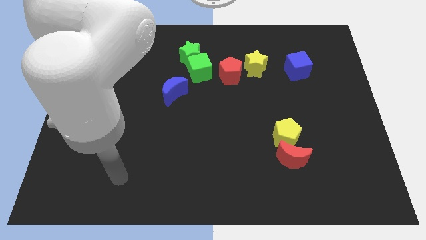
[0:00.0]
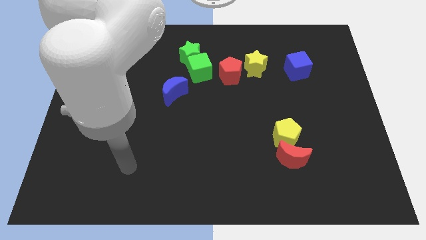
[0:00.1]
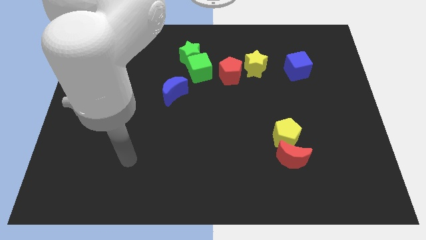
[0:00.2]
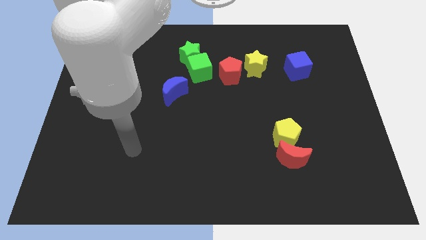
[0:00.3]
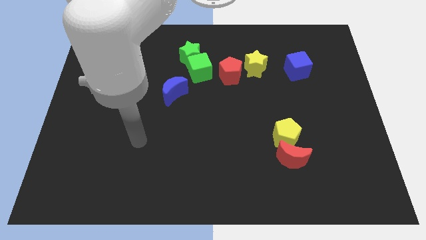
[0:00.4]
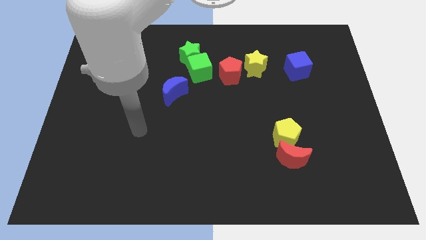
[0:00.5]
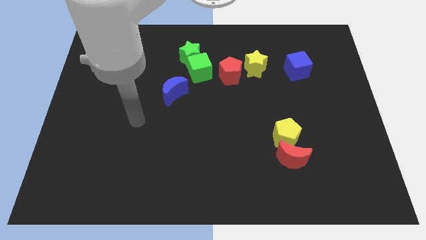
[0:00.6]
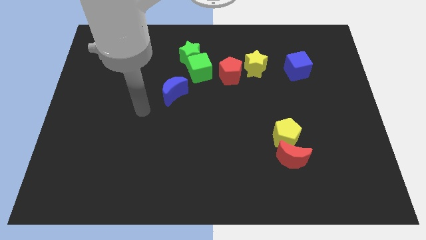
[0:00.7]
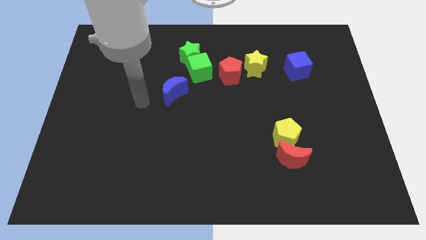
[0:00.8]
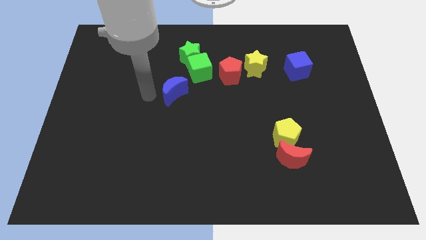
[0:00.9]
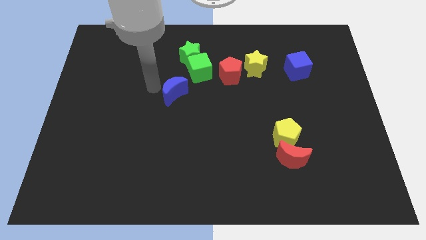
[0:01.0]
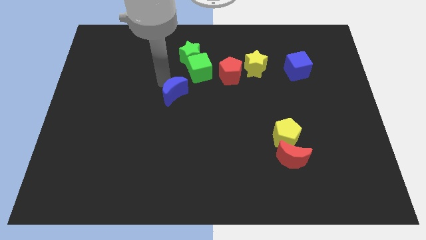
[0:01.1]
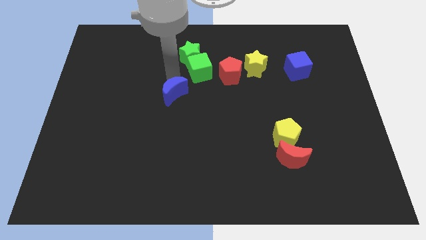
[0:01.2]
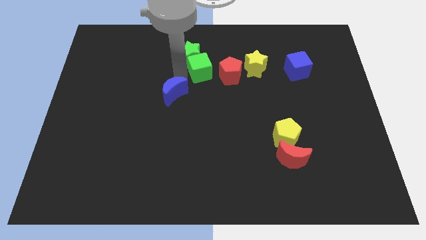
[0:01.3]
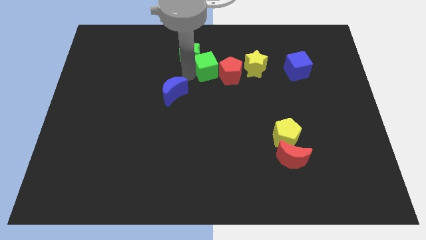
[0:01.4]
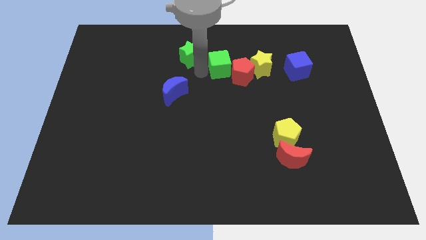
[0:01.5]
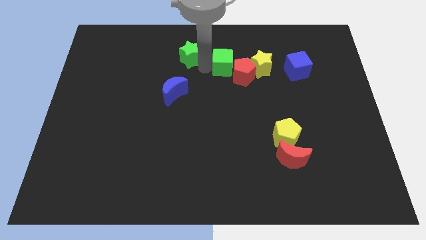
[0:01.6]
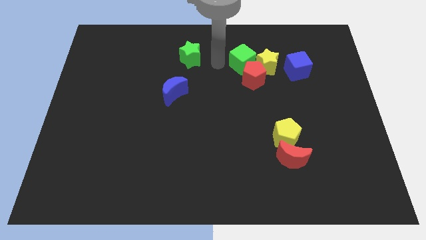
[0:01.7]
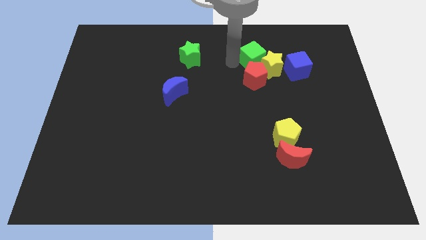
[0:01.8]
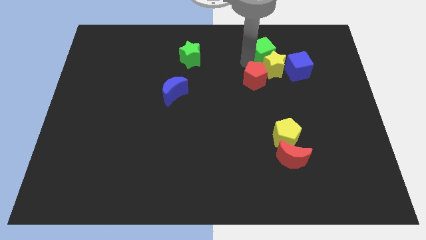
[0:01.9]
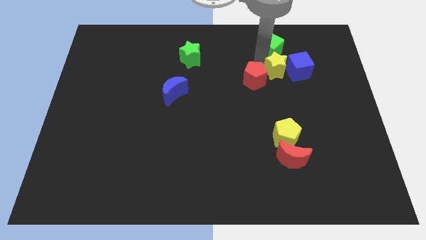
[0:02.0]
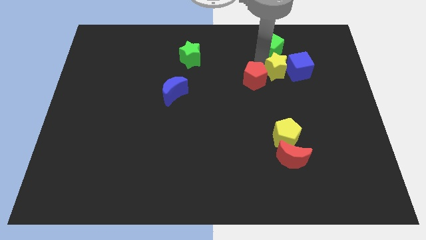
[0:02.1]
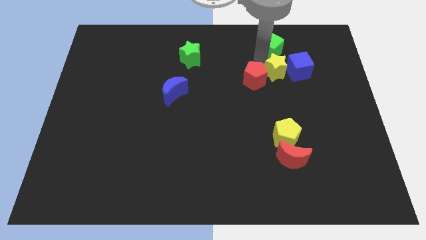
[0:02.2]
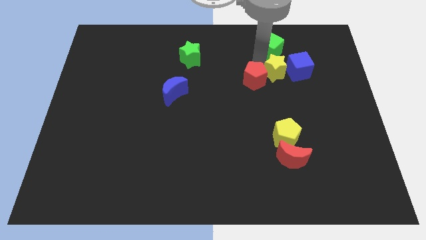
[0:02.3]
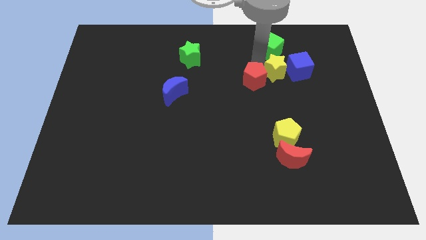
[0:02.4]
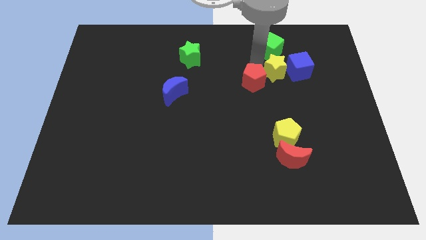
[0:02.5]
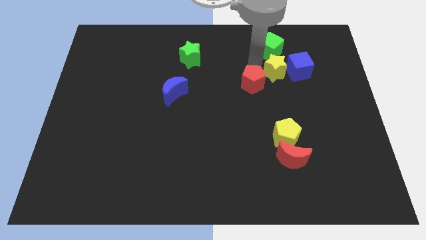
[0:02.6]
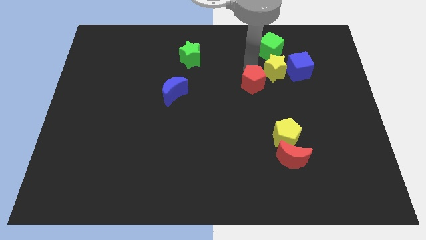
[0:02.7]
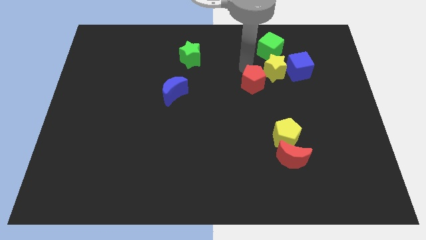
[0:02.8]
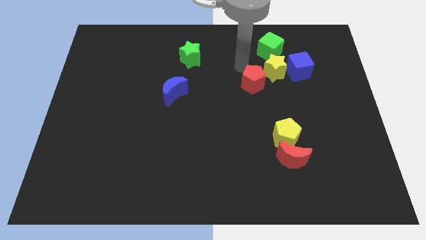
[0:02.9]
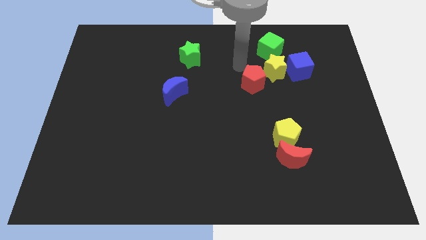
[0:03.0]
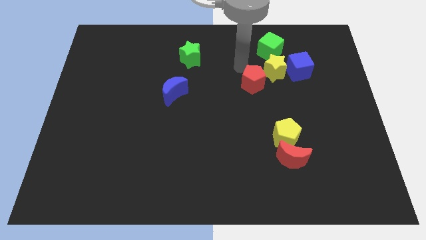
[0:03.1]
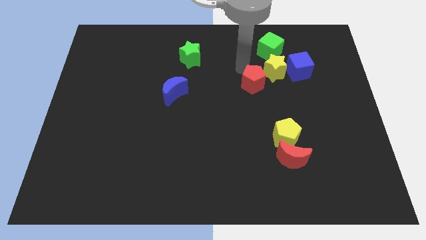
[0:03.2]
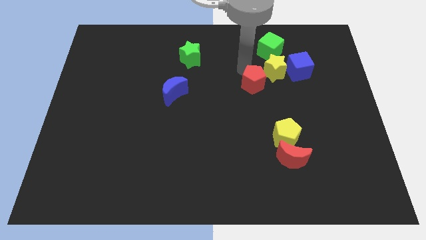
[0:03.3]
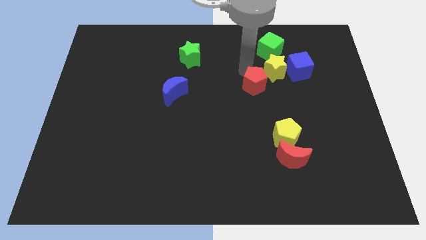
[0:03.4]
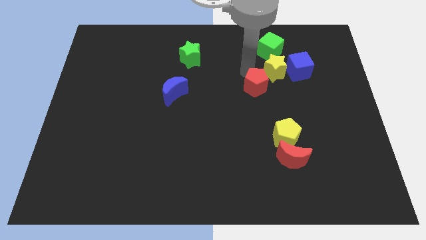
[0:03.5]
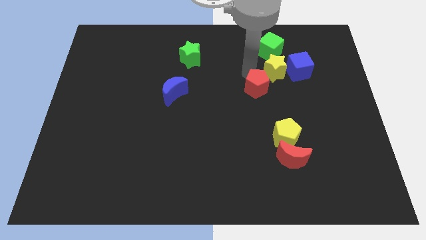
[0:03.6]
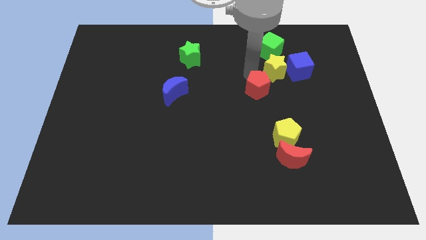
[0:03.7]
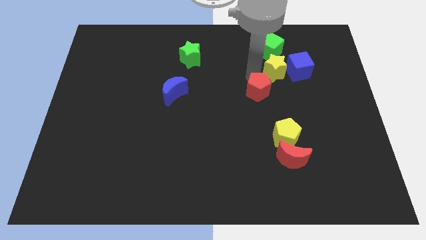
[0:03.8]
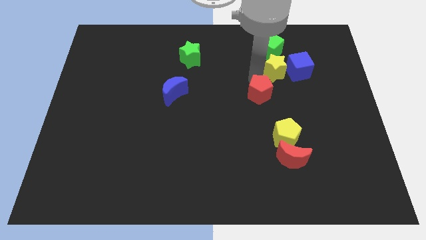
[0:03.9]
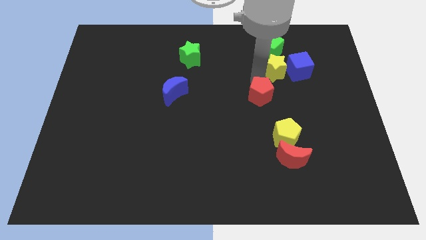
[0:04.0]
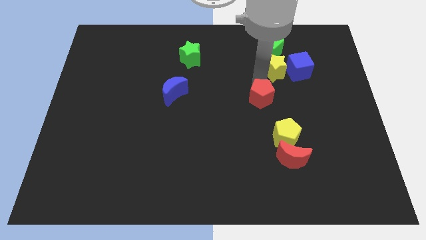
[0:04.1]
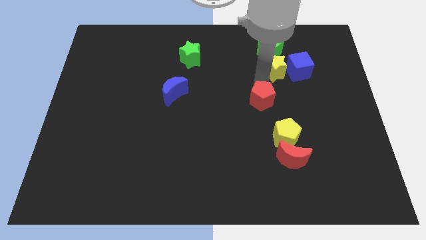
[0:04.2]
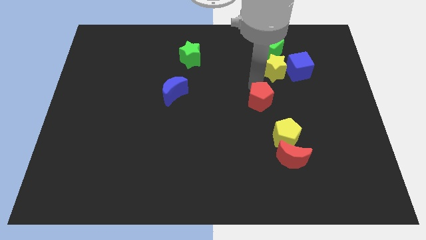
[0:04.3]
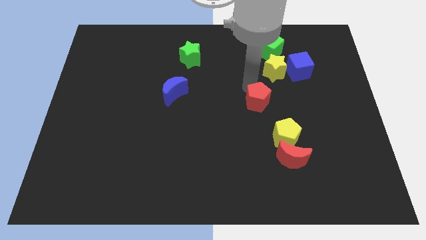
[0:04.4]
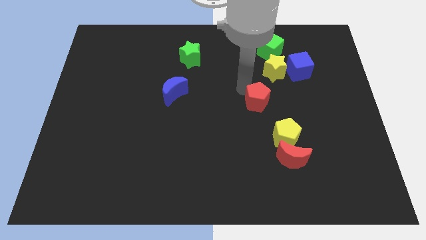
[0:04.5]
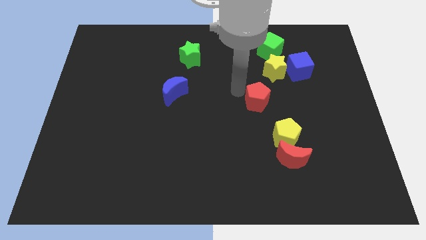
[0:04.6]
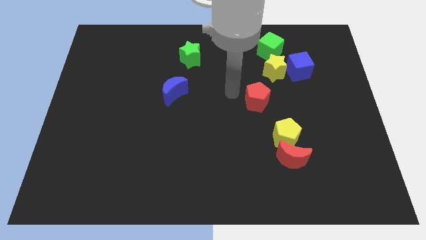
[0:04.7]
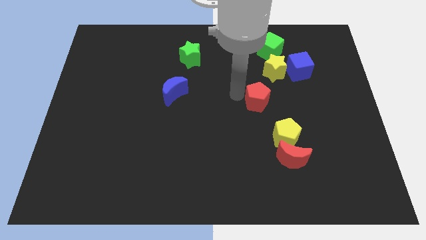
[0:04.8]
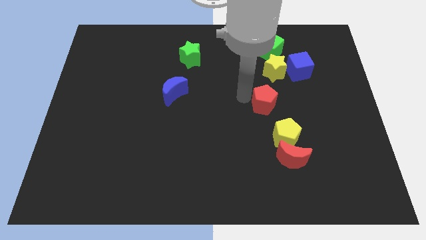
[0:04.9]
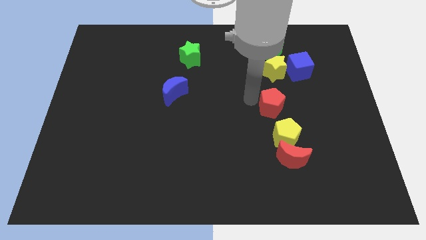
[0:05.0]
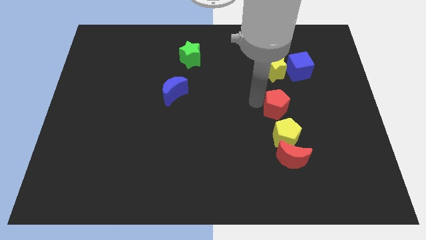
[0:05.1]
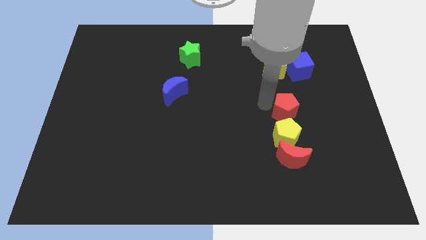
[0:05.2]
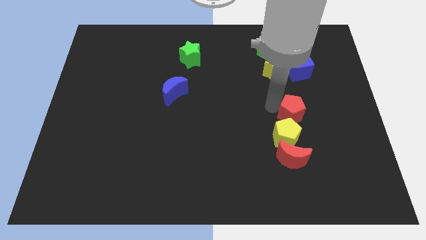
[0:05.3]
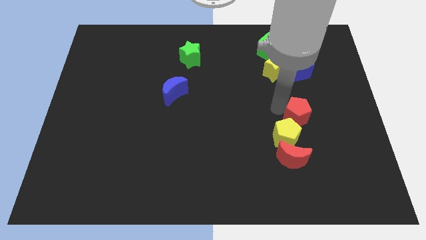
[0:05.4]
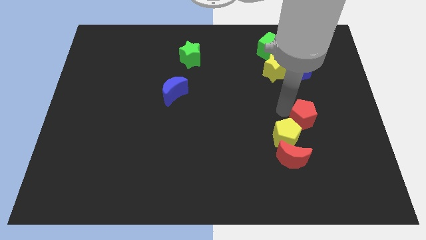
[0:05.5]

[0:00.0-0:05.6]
slide the red pentagon down and right diagonally

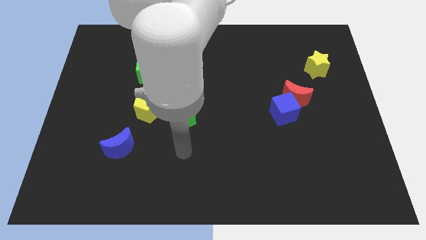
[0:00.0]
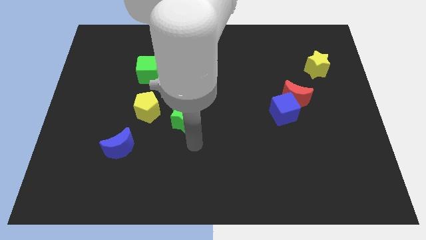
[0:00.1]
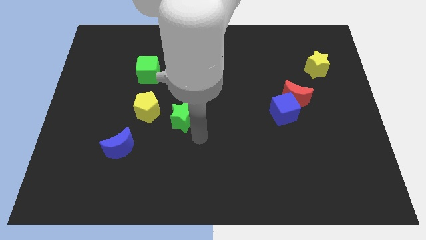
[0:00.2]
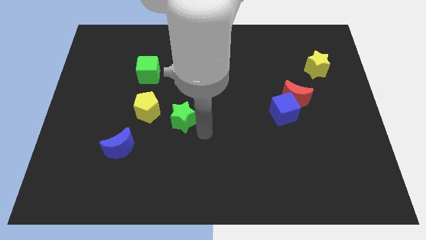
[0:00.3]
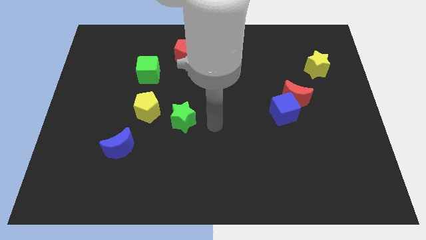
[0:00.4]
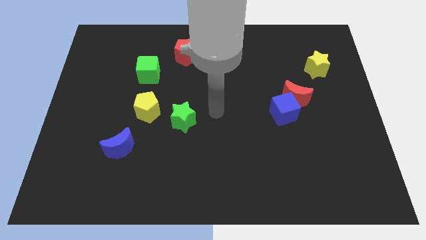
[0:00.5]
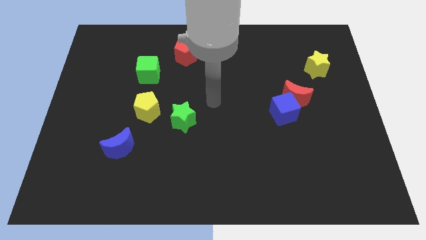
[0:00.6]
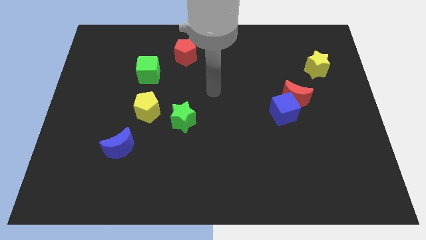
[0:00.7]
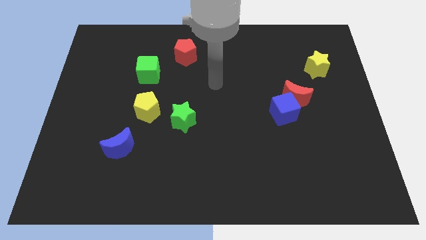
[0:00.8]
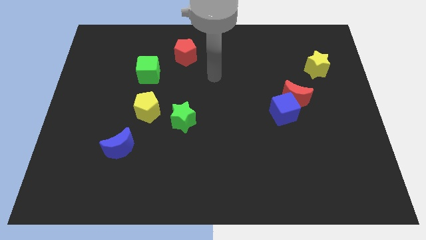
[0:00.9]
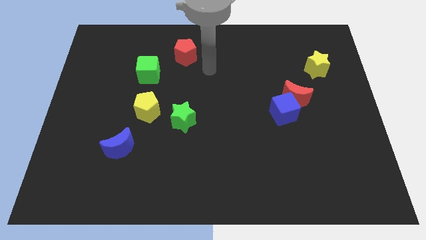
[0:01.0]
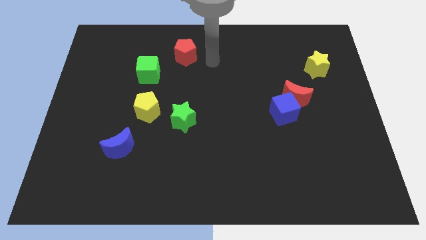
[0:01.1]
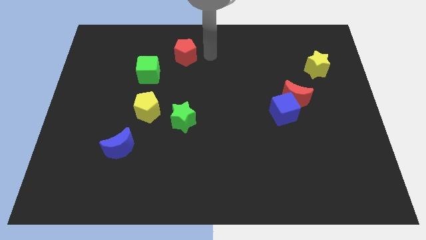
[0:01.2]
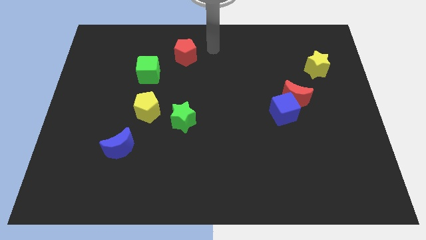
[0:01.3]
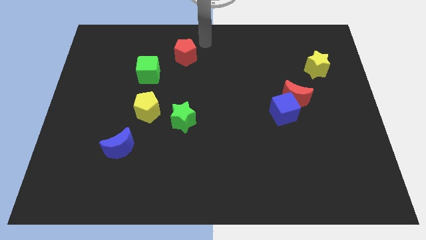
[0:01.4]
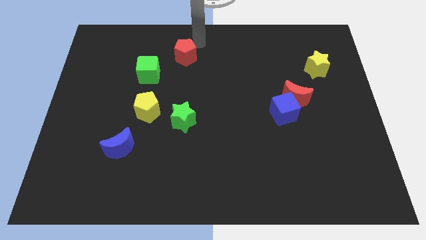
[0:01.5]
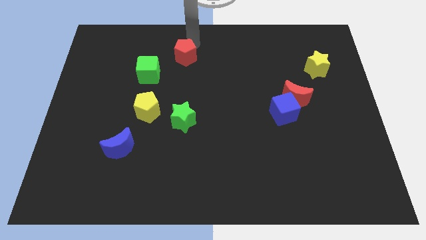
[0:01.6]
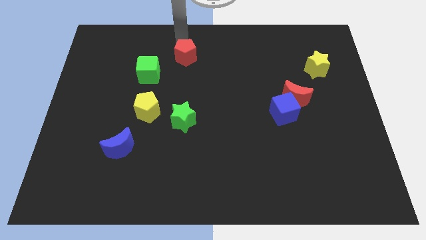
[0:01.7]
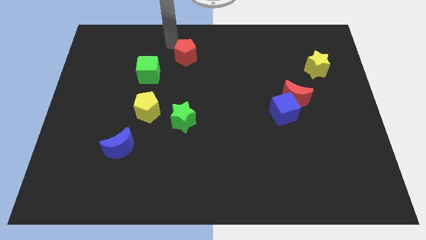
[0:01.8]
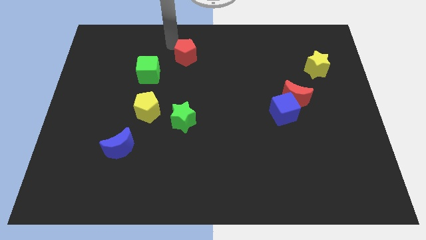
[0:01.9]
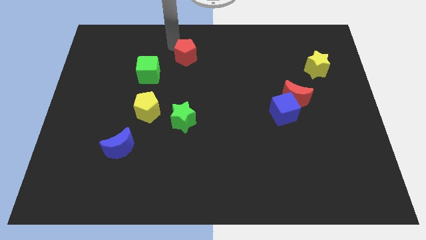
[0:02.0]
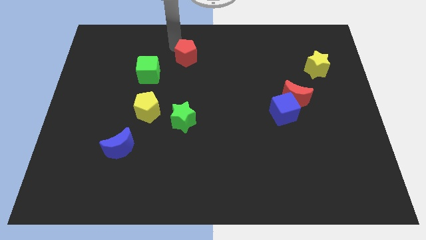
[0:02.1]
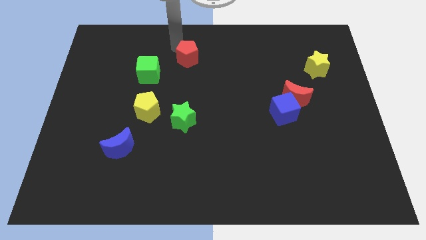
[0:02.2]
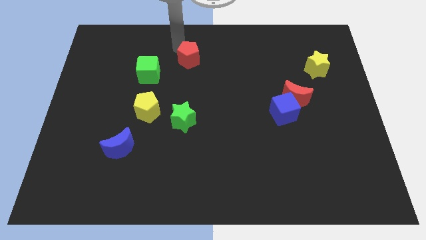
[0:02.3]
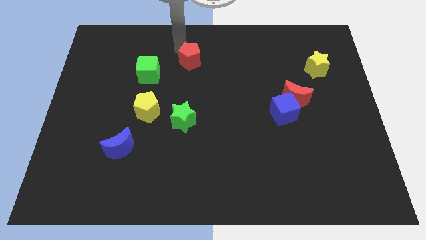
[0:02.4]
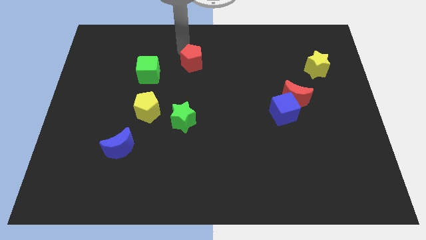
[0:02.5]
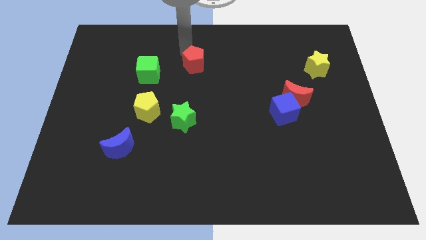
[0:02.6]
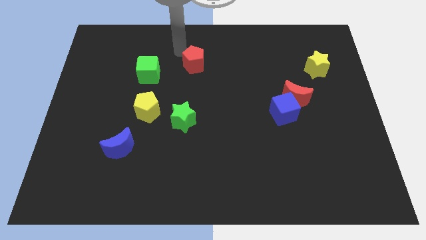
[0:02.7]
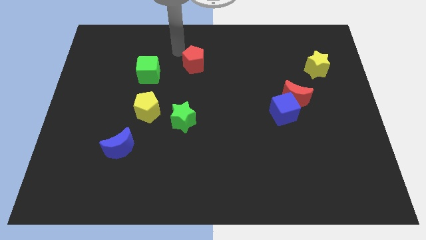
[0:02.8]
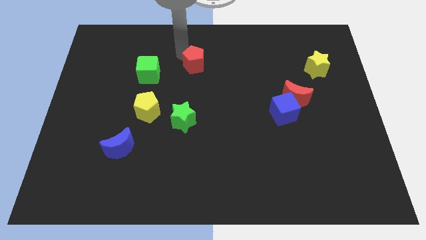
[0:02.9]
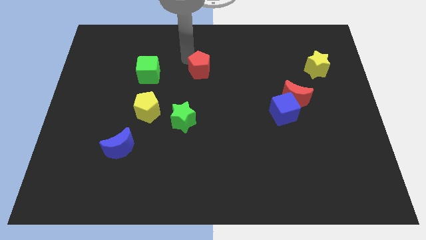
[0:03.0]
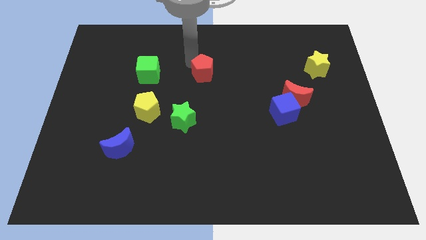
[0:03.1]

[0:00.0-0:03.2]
slide the red pentagon somewhat diagonally downwards and to the right

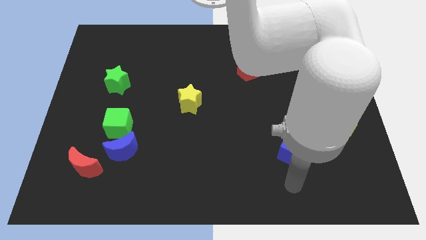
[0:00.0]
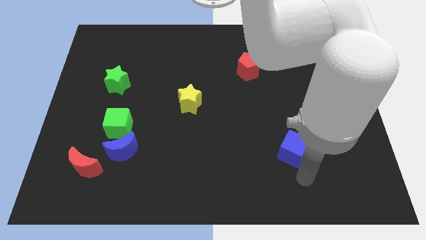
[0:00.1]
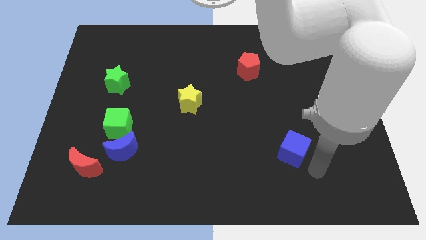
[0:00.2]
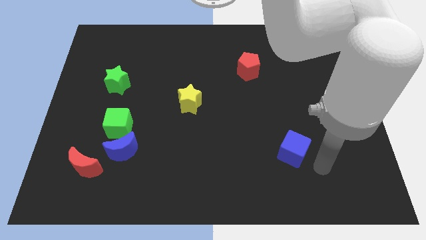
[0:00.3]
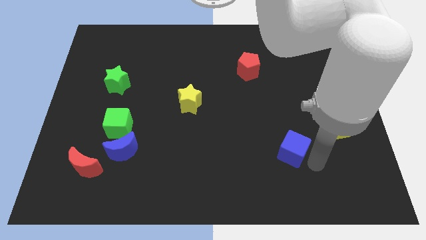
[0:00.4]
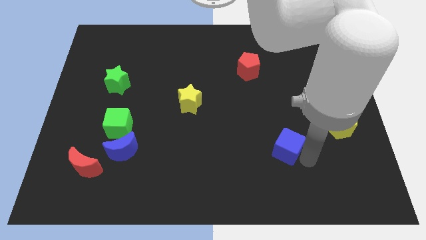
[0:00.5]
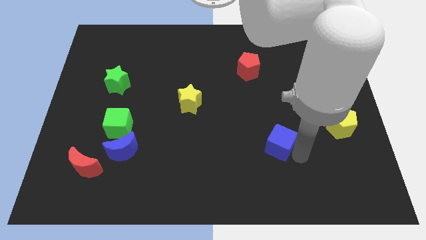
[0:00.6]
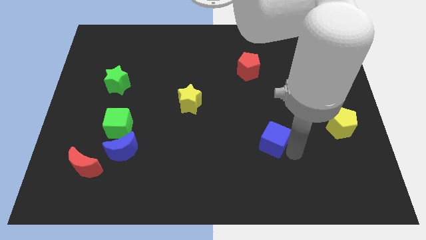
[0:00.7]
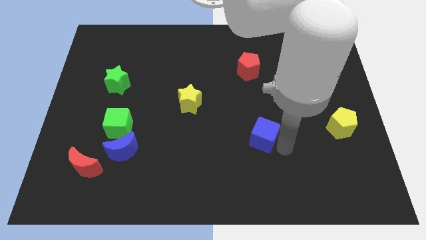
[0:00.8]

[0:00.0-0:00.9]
move the blue cube somewhat up and then left
